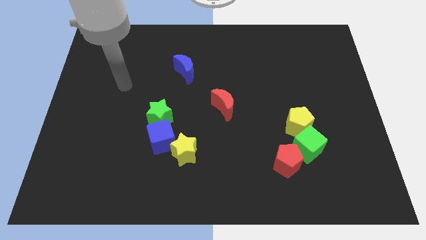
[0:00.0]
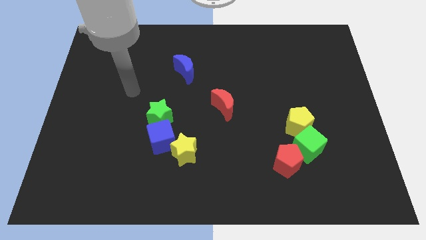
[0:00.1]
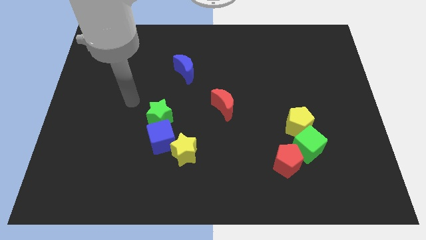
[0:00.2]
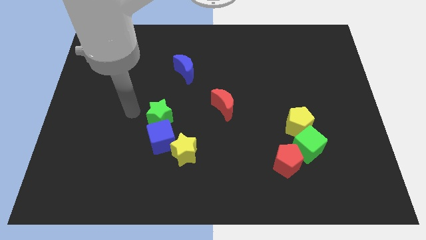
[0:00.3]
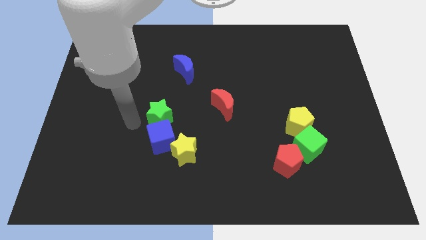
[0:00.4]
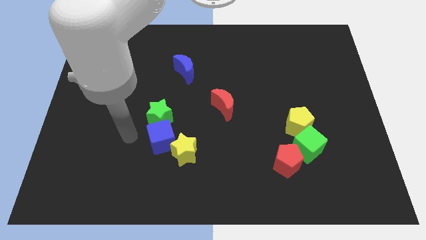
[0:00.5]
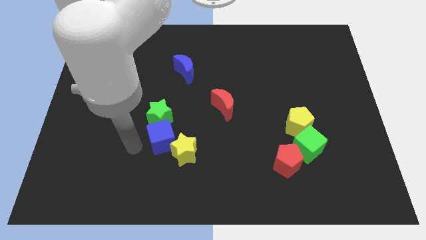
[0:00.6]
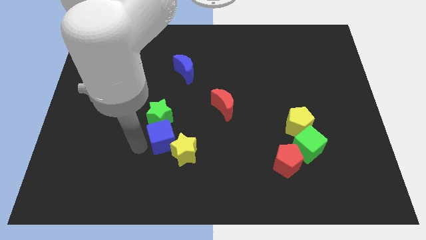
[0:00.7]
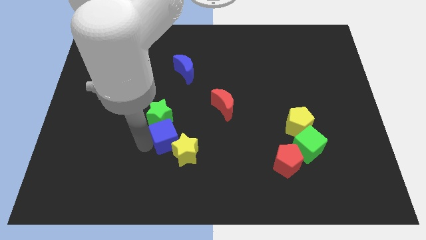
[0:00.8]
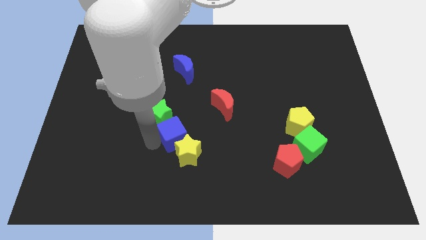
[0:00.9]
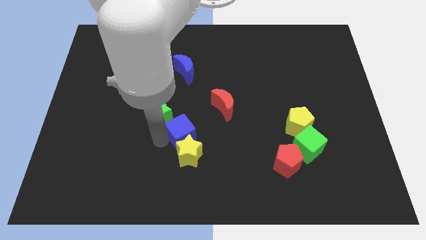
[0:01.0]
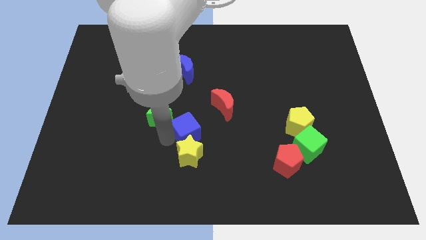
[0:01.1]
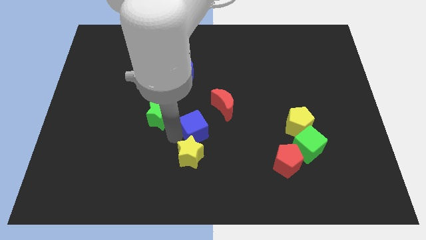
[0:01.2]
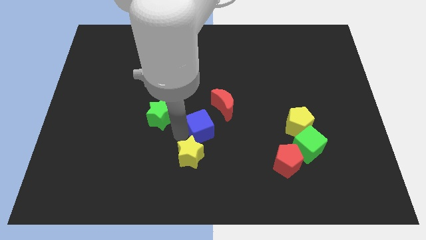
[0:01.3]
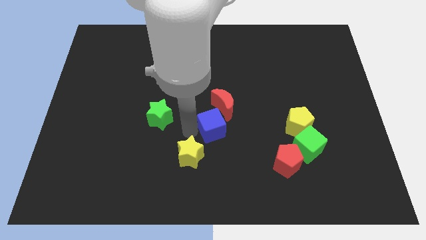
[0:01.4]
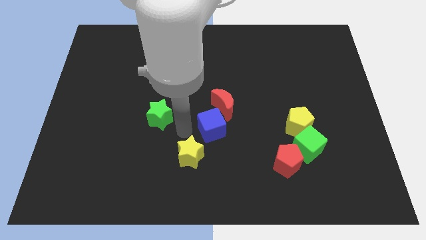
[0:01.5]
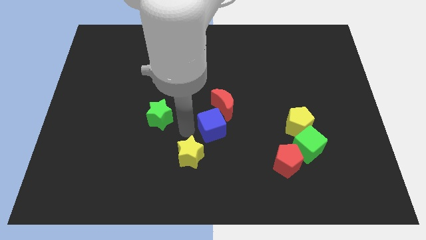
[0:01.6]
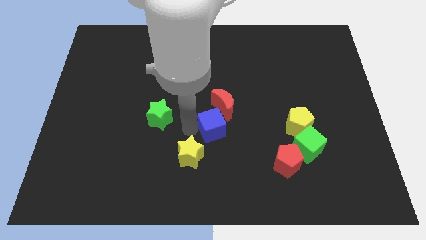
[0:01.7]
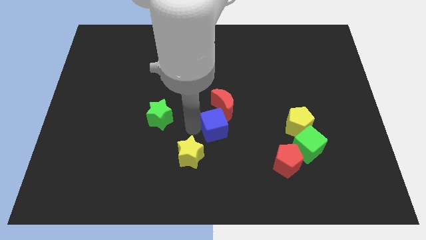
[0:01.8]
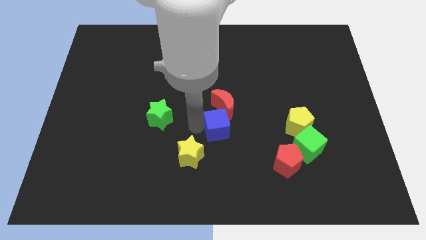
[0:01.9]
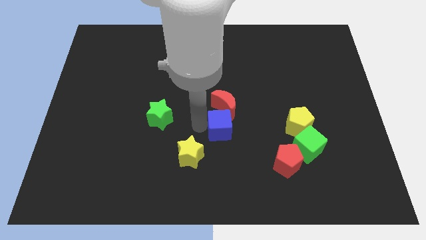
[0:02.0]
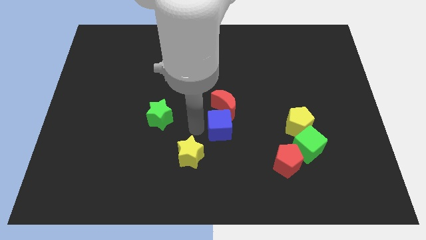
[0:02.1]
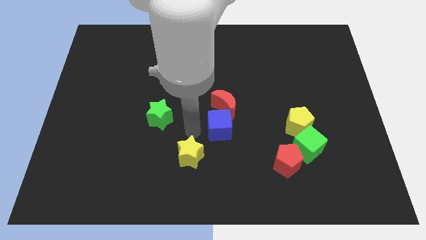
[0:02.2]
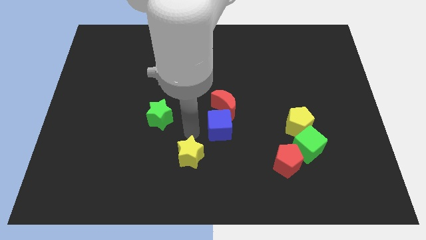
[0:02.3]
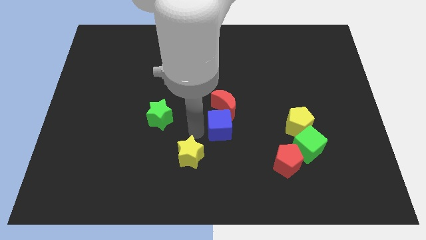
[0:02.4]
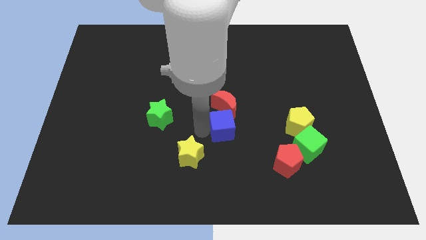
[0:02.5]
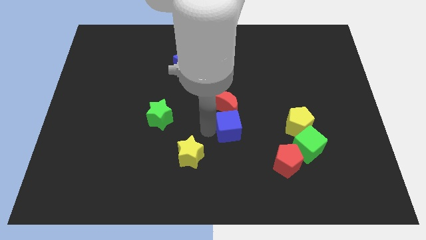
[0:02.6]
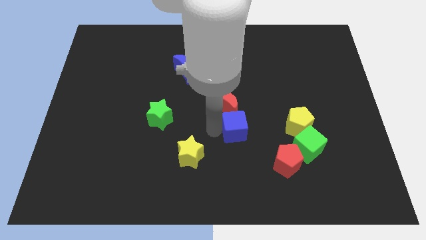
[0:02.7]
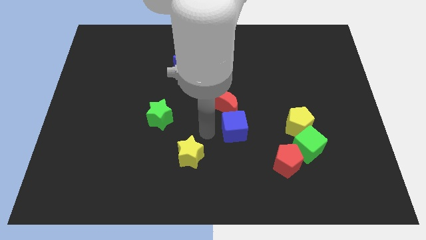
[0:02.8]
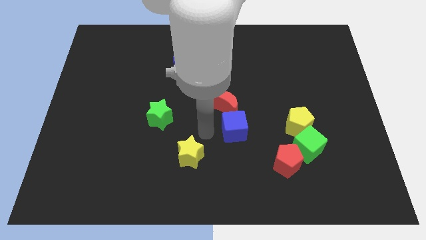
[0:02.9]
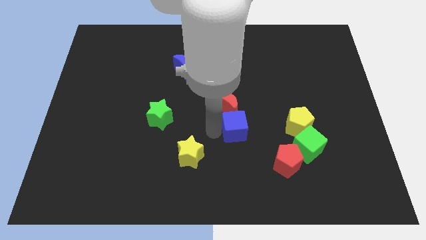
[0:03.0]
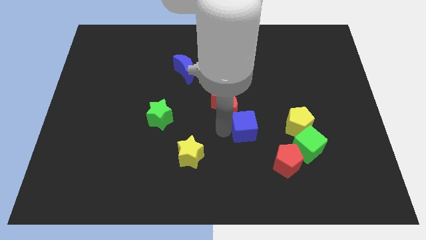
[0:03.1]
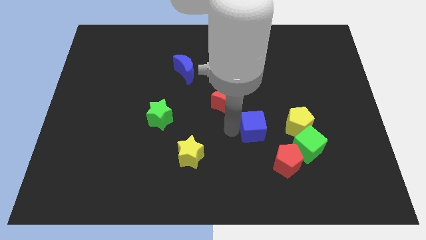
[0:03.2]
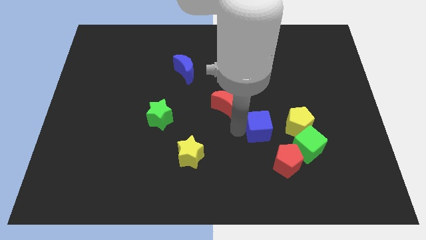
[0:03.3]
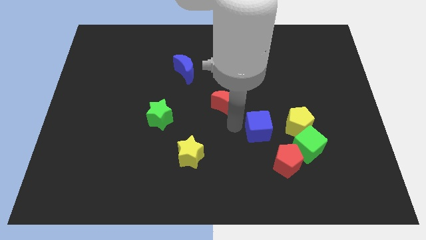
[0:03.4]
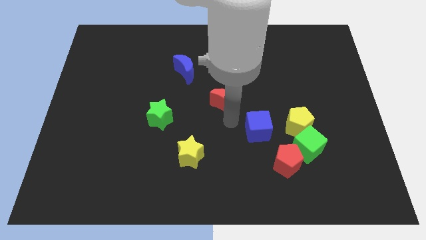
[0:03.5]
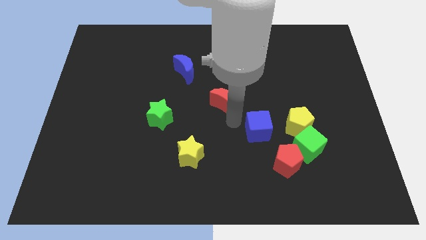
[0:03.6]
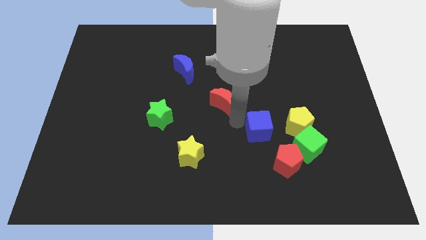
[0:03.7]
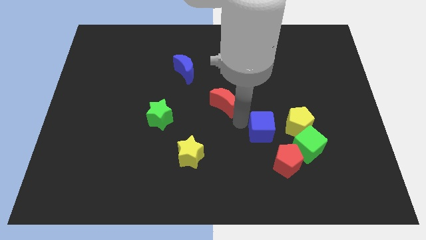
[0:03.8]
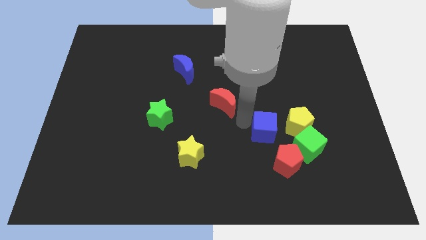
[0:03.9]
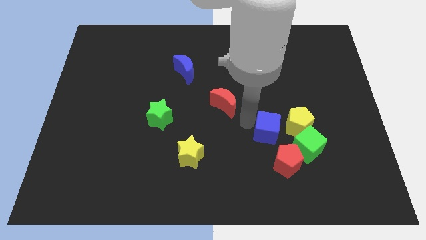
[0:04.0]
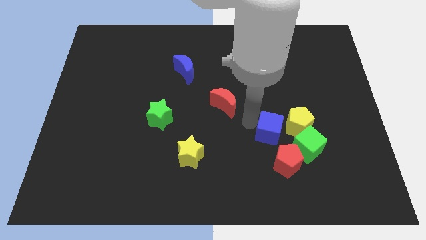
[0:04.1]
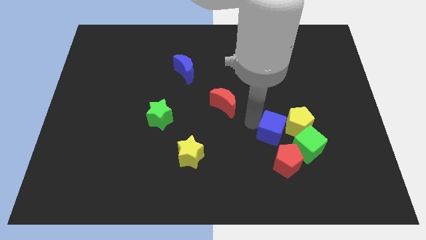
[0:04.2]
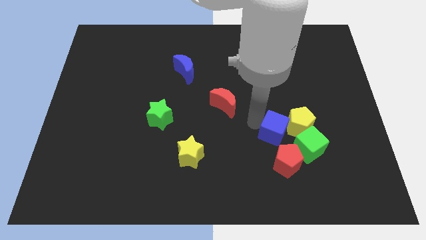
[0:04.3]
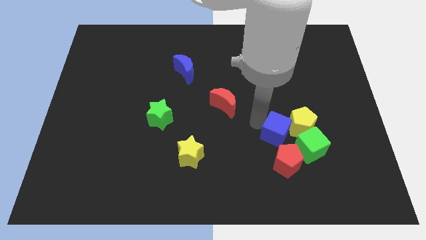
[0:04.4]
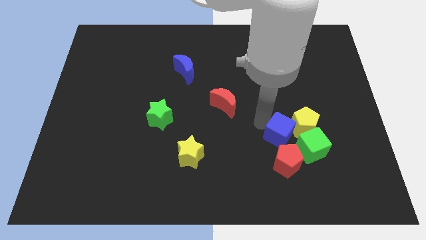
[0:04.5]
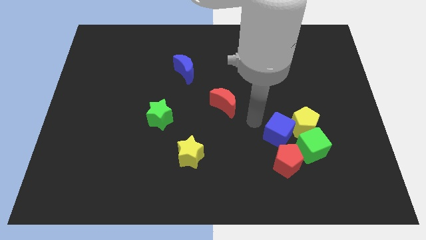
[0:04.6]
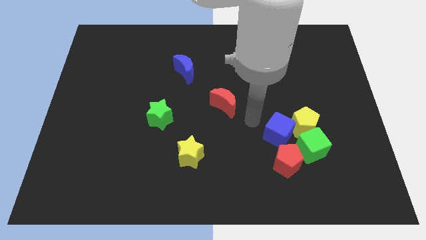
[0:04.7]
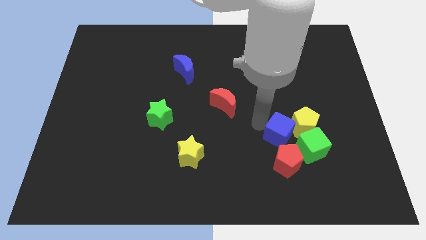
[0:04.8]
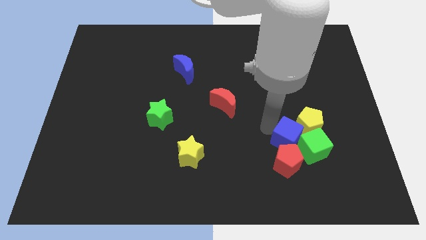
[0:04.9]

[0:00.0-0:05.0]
put the blue cube close to the green cube

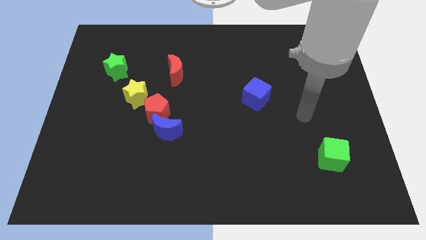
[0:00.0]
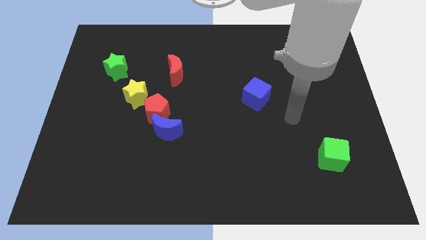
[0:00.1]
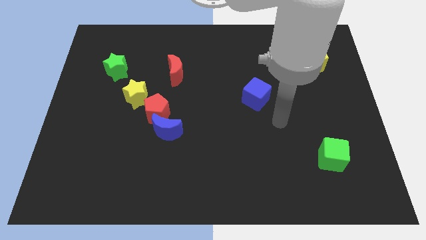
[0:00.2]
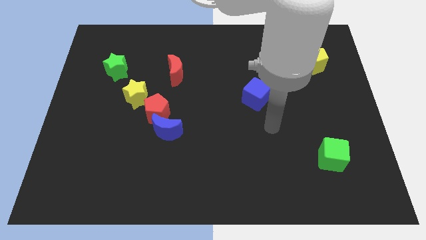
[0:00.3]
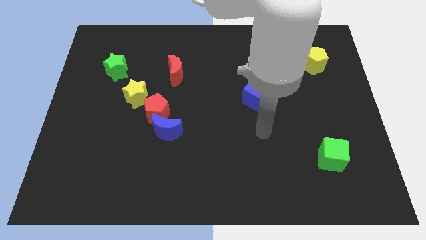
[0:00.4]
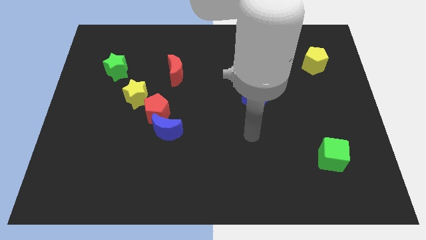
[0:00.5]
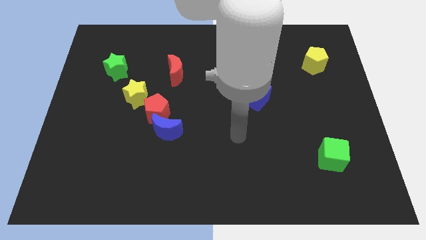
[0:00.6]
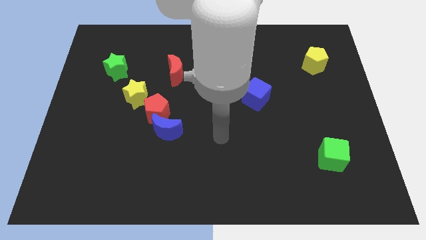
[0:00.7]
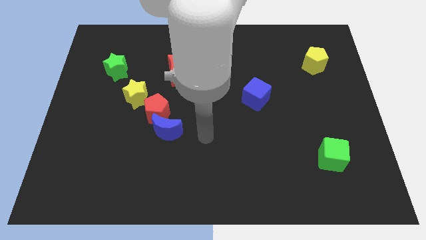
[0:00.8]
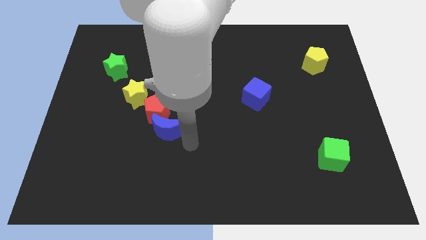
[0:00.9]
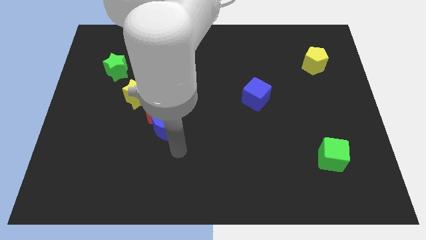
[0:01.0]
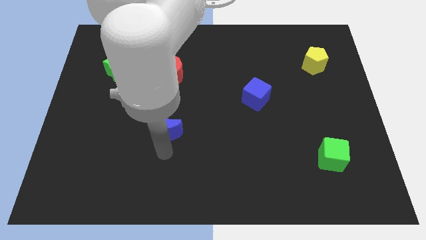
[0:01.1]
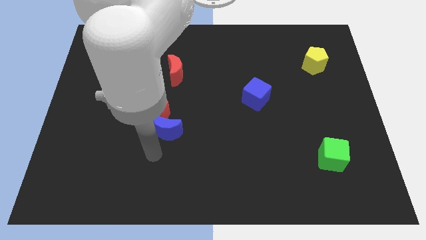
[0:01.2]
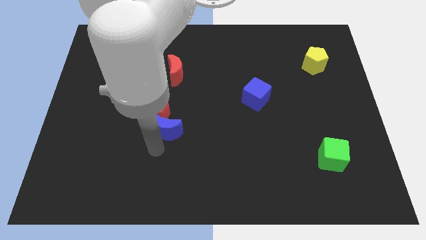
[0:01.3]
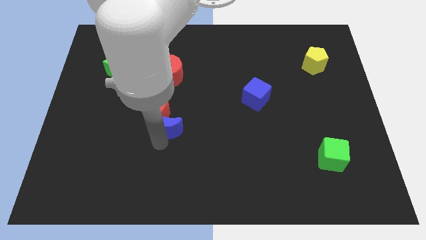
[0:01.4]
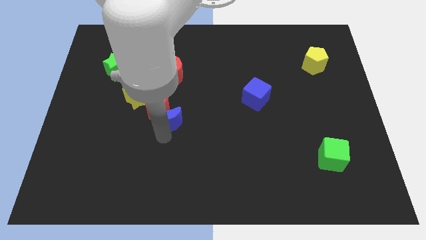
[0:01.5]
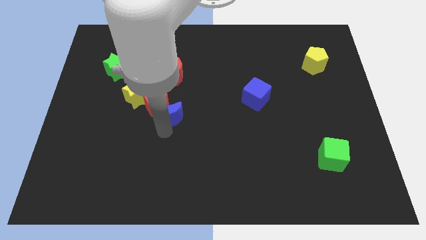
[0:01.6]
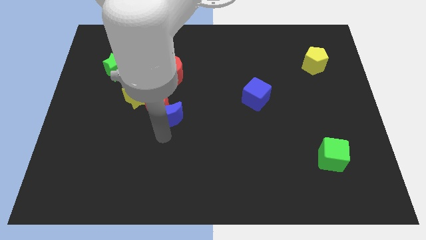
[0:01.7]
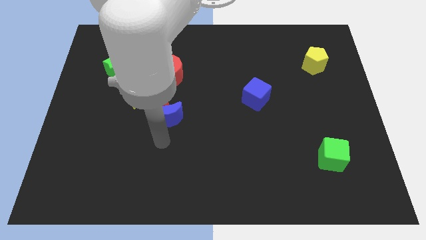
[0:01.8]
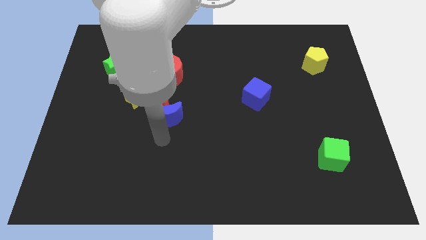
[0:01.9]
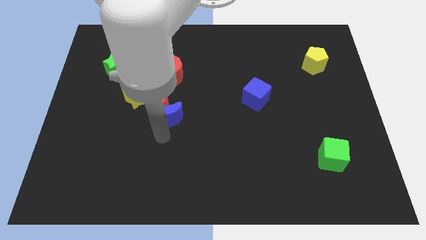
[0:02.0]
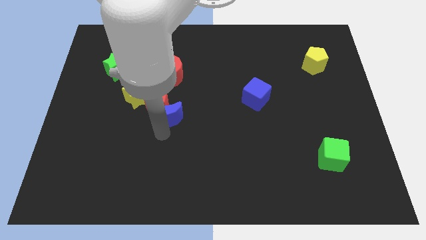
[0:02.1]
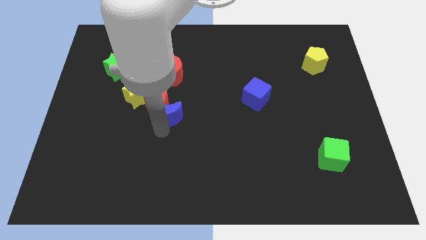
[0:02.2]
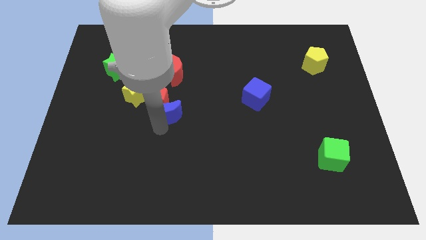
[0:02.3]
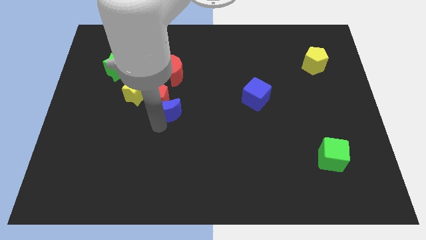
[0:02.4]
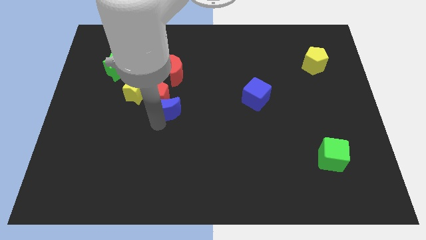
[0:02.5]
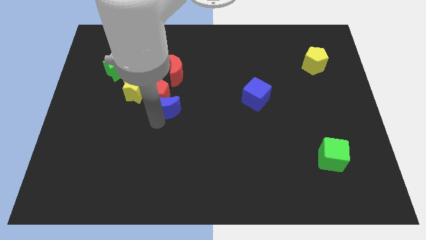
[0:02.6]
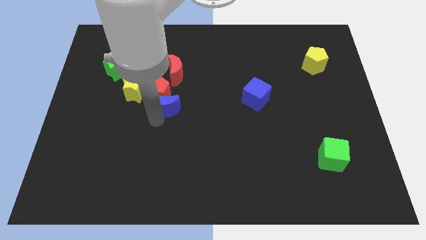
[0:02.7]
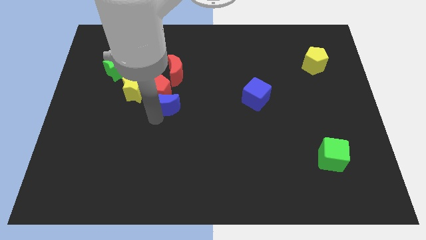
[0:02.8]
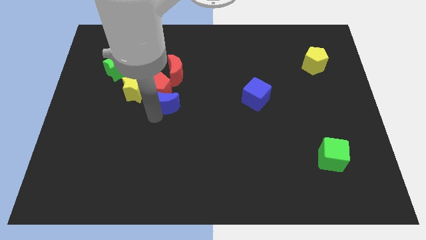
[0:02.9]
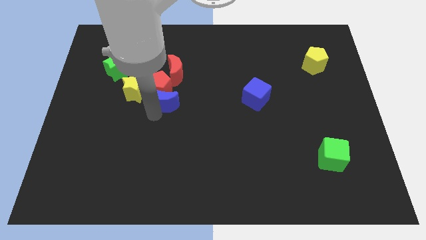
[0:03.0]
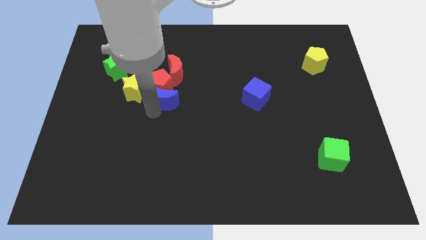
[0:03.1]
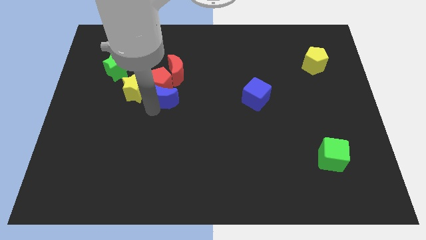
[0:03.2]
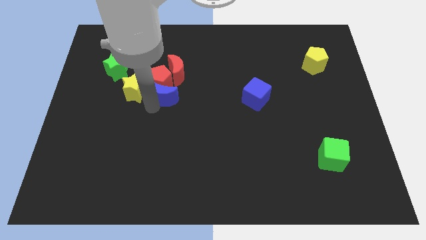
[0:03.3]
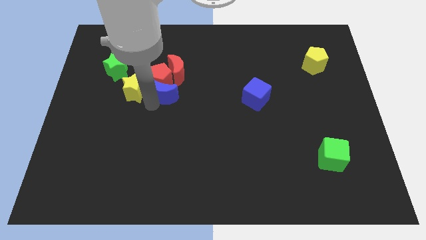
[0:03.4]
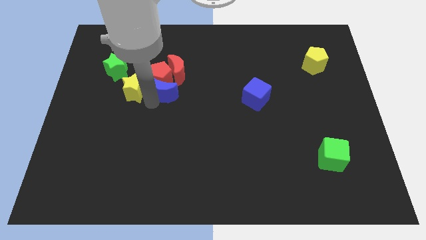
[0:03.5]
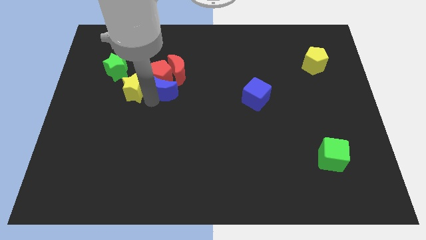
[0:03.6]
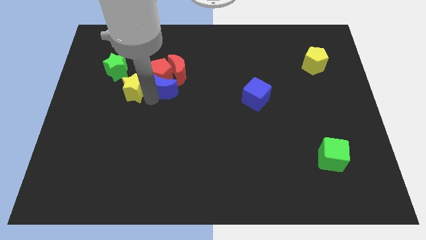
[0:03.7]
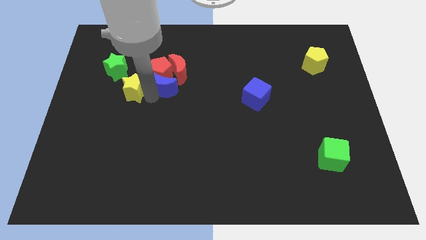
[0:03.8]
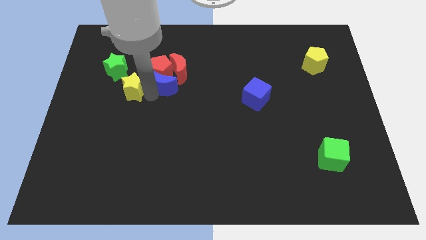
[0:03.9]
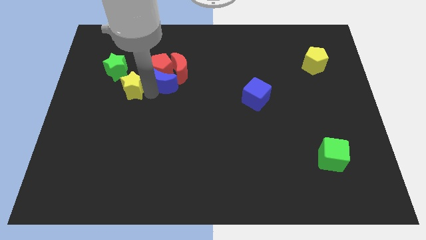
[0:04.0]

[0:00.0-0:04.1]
slide the blue moon next to the red moon
